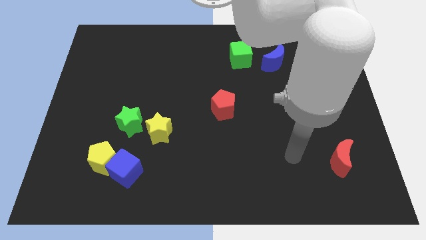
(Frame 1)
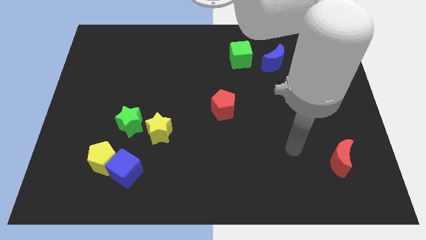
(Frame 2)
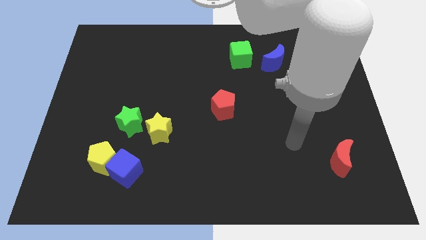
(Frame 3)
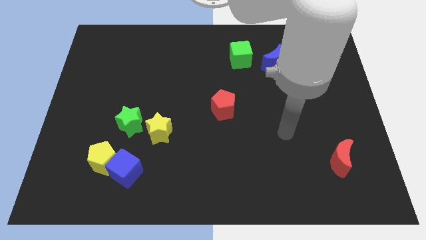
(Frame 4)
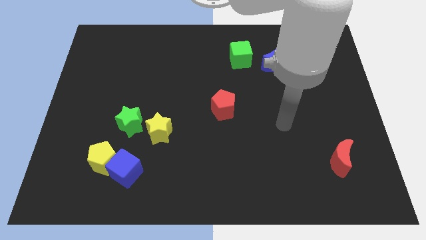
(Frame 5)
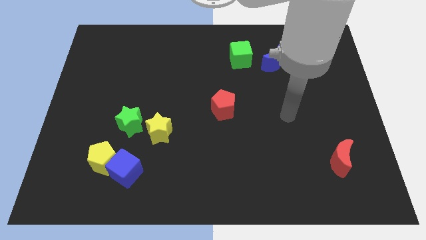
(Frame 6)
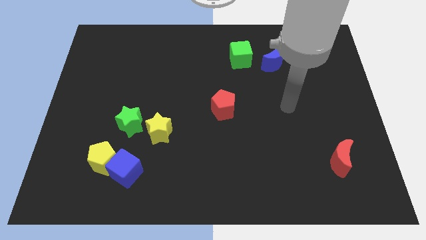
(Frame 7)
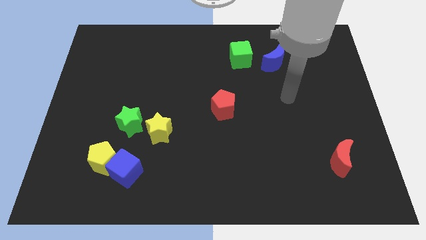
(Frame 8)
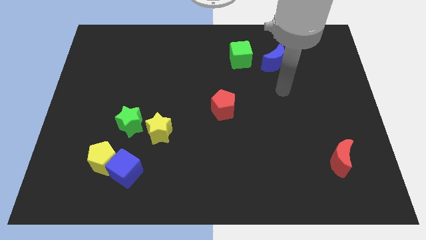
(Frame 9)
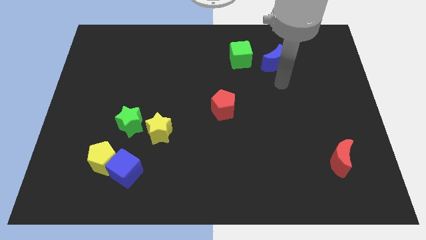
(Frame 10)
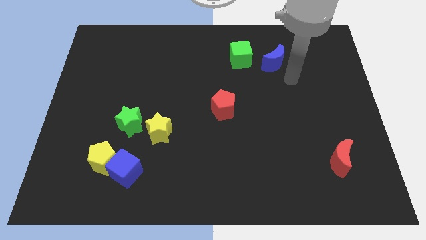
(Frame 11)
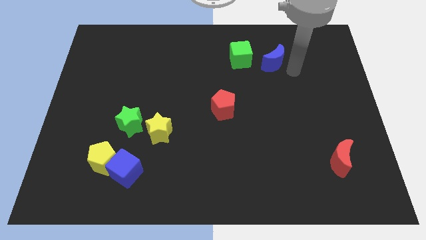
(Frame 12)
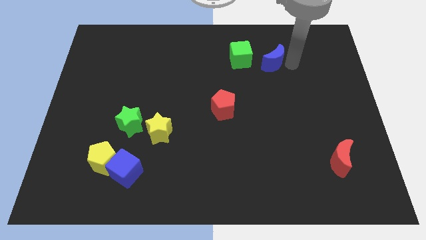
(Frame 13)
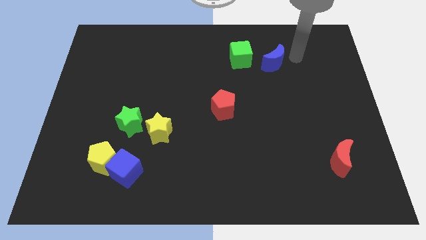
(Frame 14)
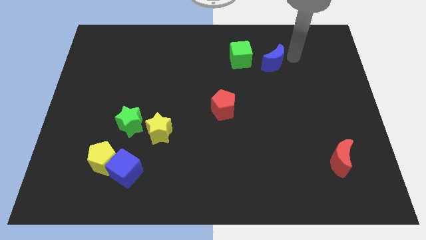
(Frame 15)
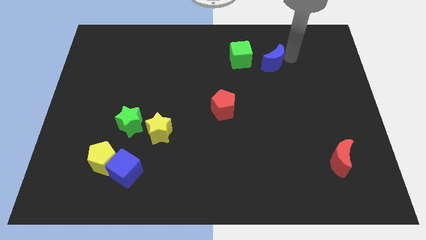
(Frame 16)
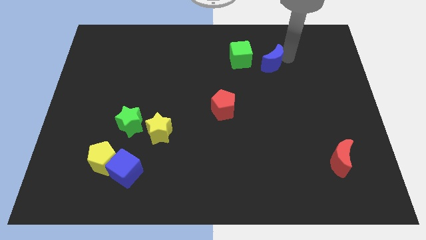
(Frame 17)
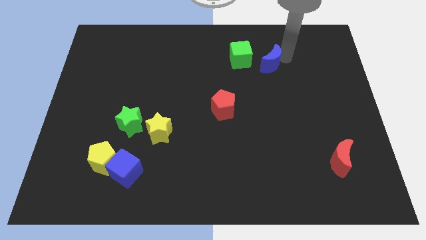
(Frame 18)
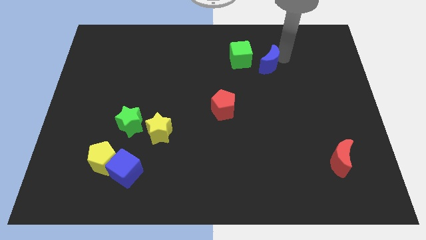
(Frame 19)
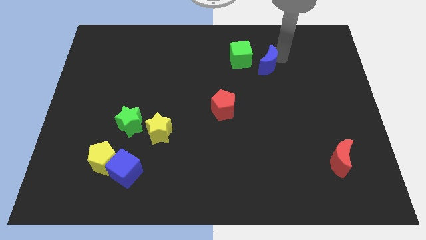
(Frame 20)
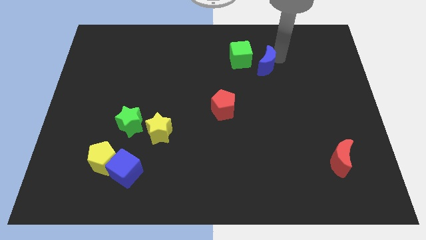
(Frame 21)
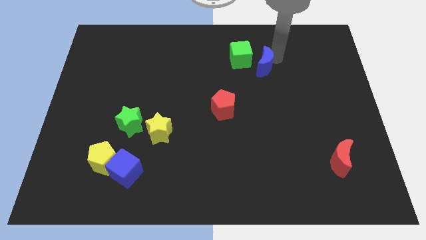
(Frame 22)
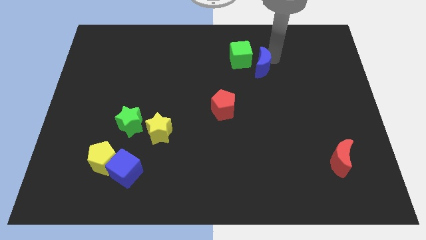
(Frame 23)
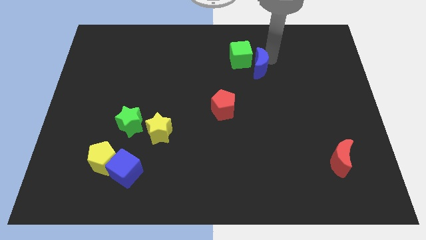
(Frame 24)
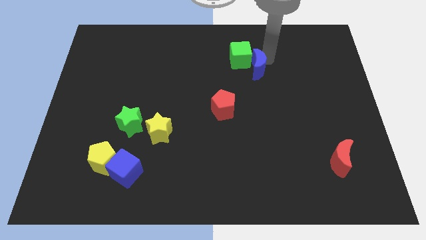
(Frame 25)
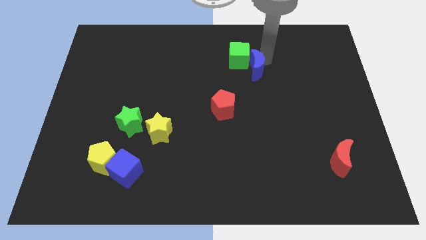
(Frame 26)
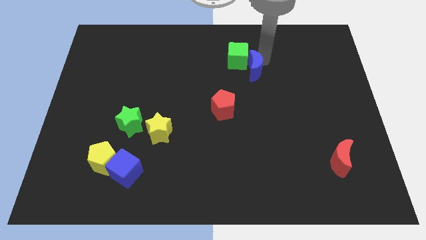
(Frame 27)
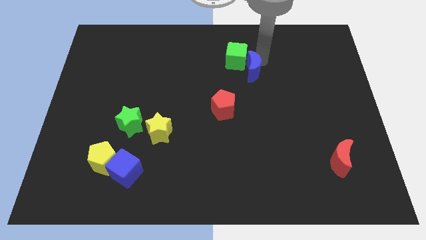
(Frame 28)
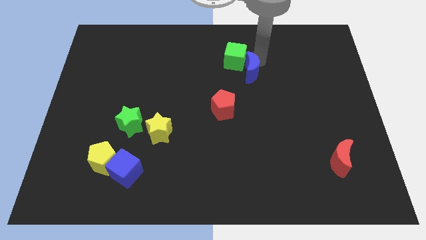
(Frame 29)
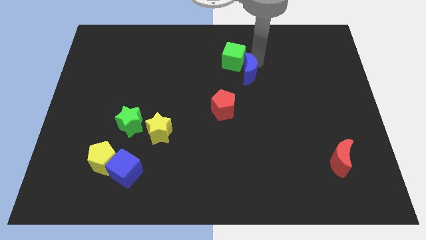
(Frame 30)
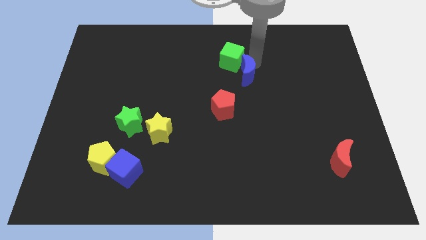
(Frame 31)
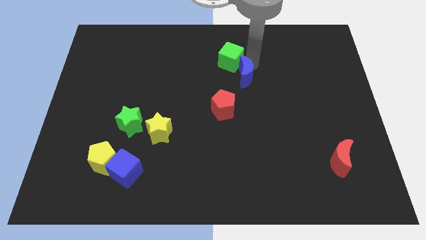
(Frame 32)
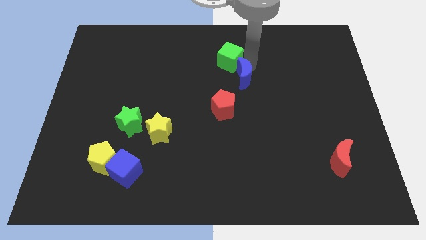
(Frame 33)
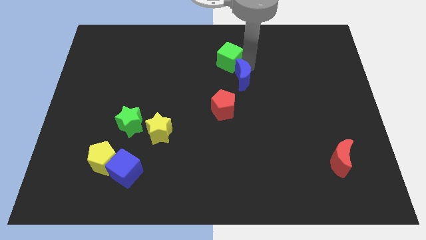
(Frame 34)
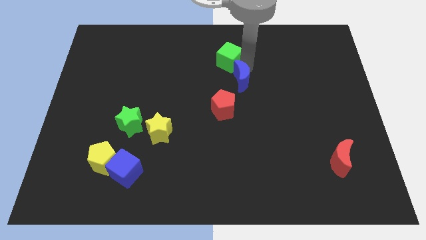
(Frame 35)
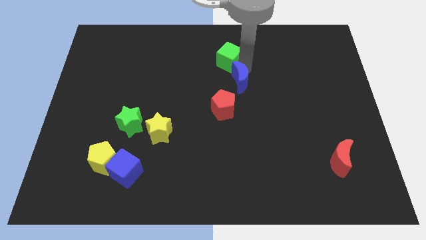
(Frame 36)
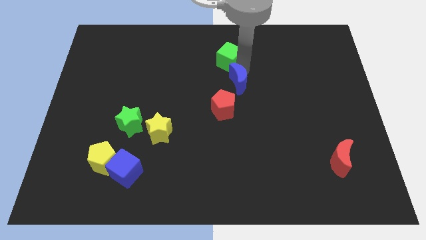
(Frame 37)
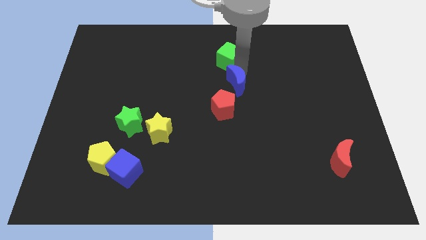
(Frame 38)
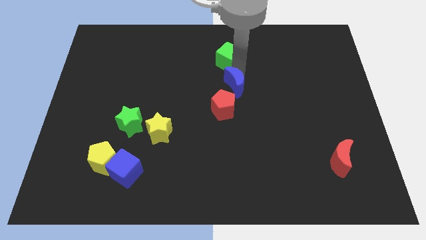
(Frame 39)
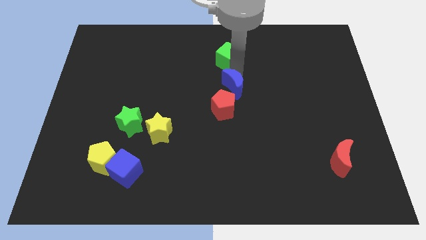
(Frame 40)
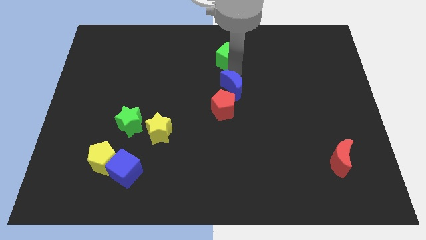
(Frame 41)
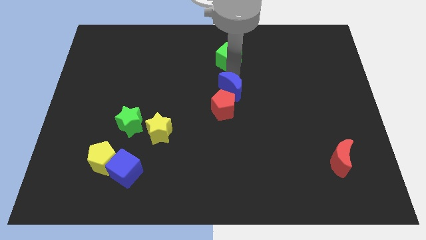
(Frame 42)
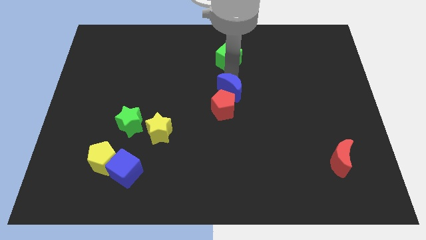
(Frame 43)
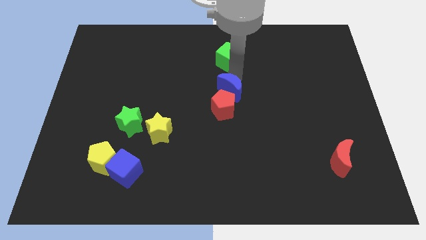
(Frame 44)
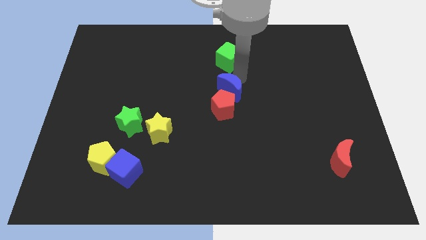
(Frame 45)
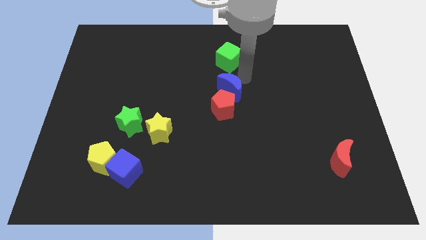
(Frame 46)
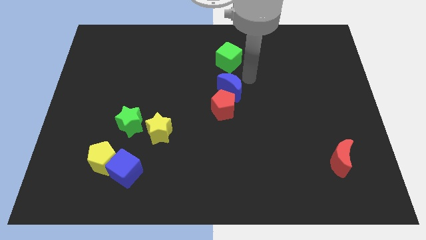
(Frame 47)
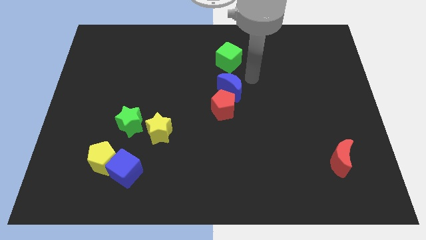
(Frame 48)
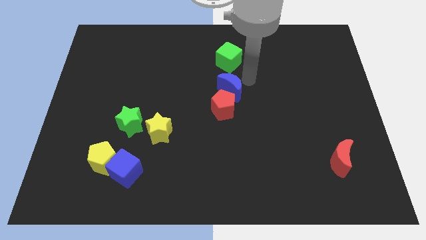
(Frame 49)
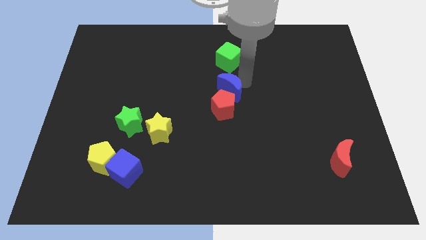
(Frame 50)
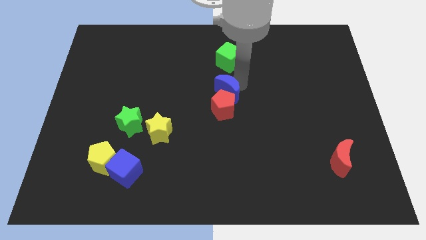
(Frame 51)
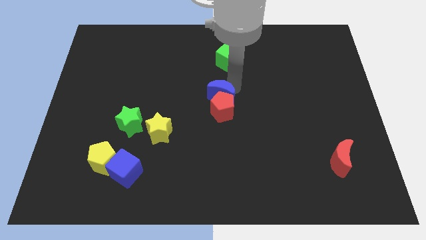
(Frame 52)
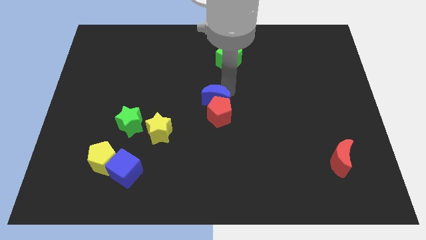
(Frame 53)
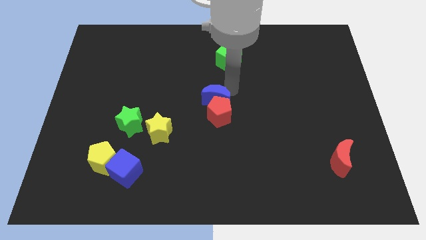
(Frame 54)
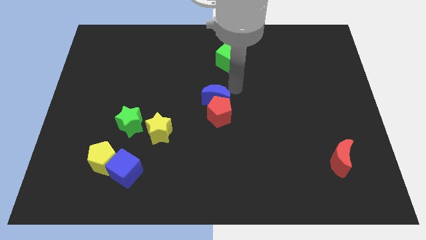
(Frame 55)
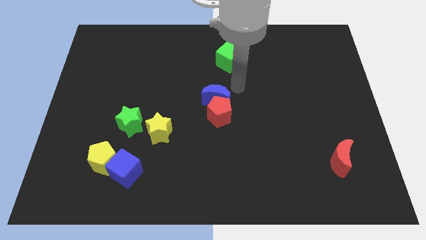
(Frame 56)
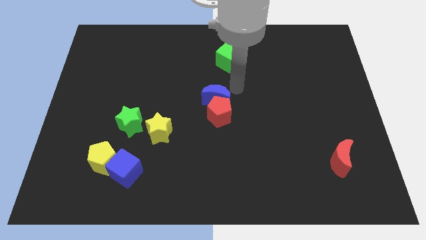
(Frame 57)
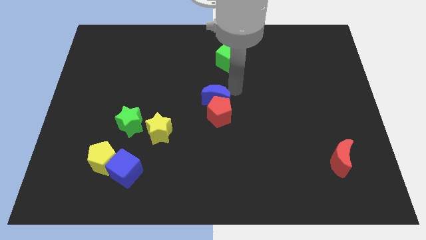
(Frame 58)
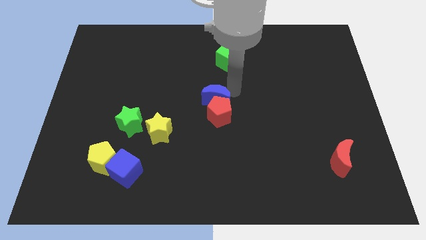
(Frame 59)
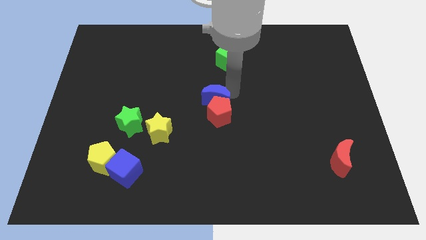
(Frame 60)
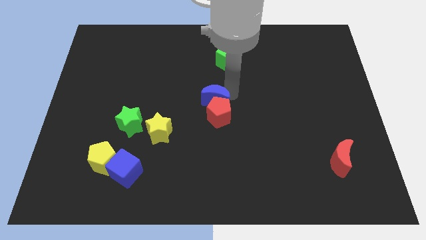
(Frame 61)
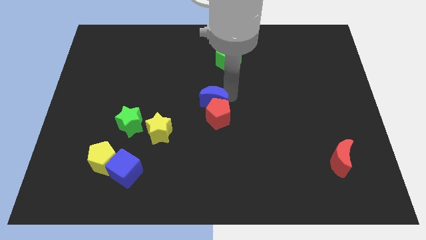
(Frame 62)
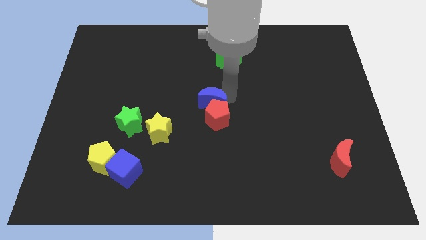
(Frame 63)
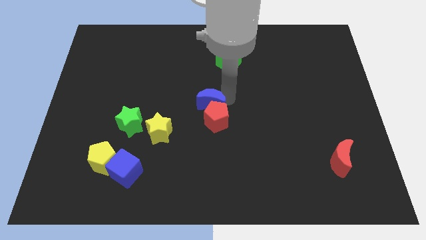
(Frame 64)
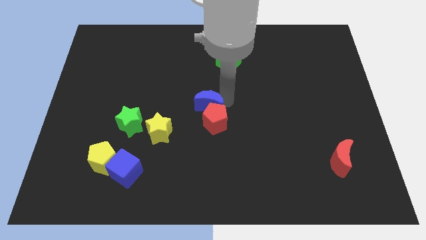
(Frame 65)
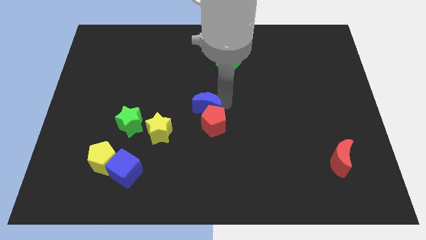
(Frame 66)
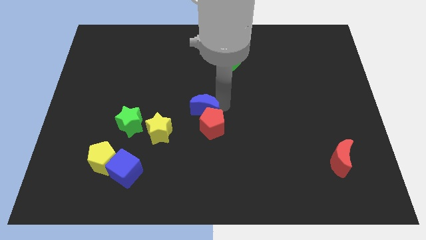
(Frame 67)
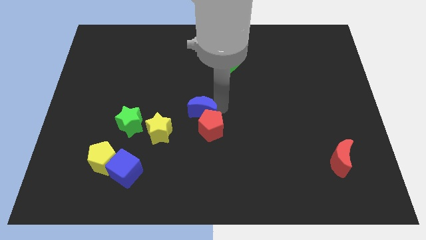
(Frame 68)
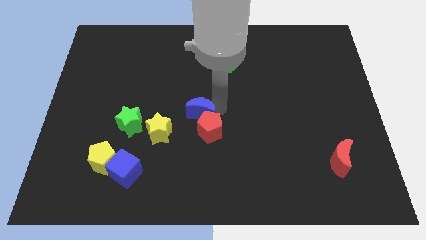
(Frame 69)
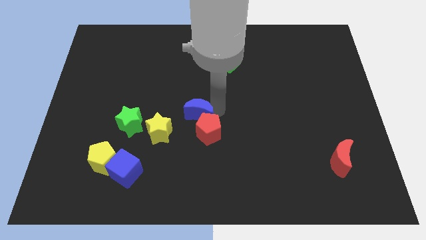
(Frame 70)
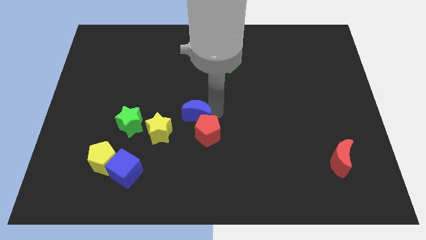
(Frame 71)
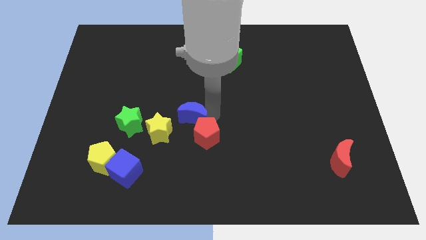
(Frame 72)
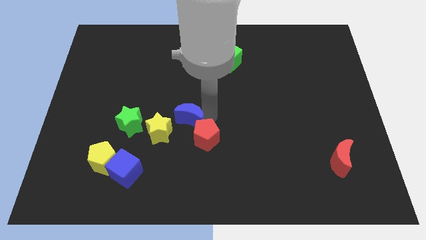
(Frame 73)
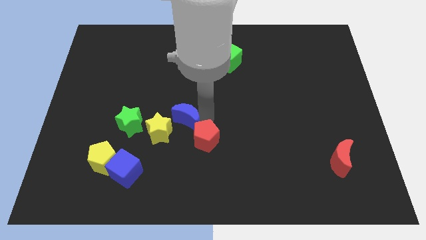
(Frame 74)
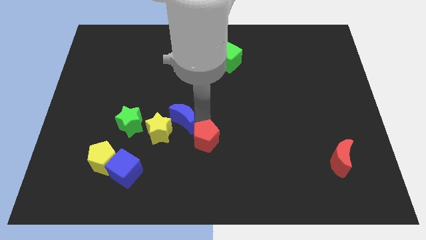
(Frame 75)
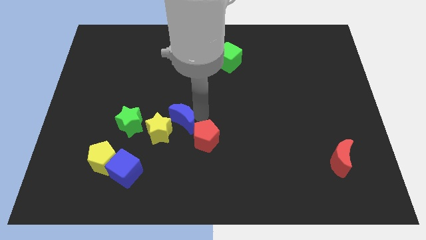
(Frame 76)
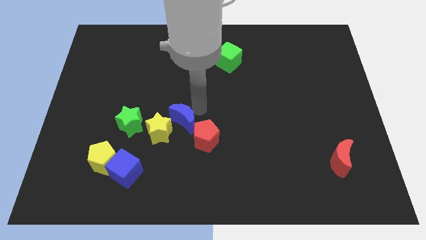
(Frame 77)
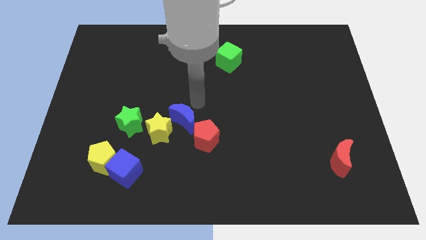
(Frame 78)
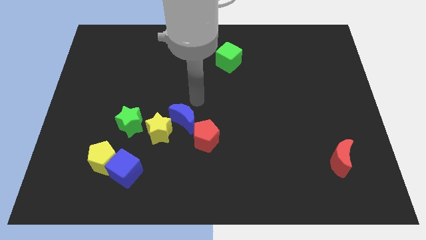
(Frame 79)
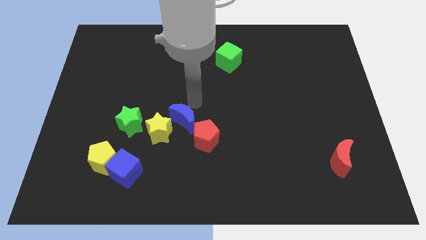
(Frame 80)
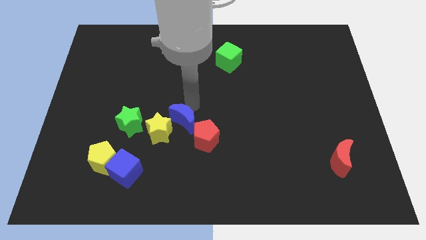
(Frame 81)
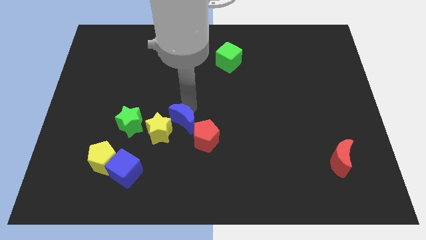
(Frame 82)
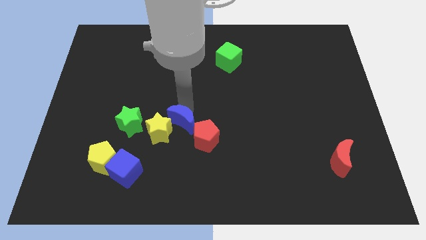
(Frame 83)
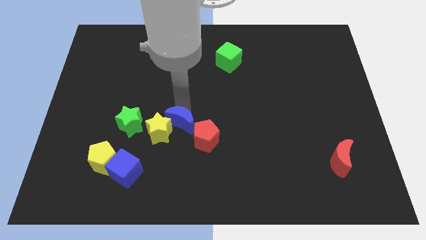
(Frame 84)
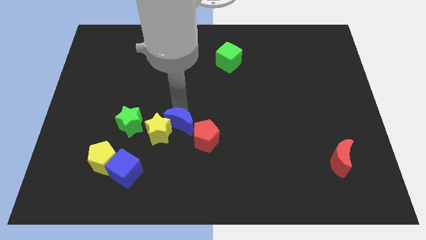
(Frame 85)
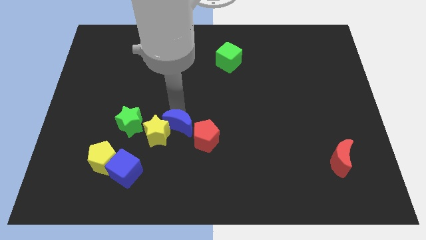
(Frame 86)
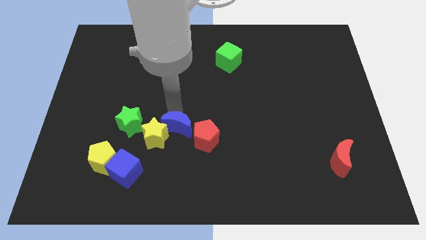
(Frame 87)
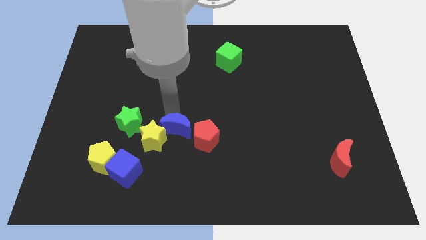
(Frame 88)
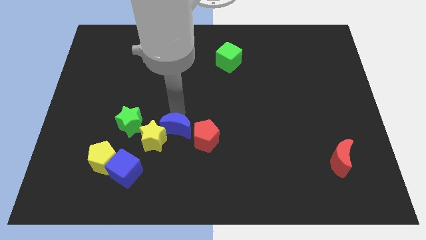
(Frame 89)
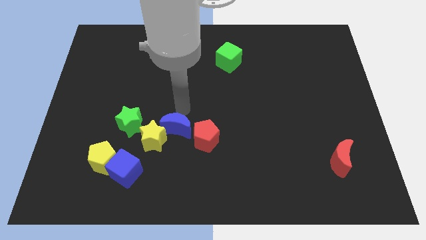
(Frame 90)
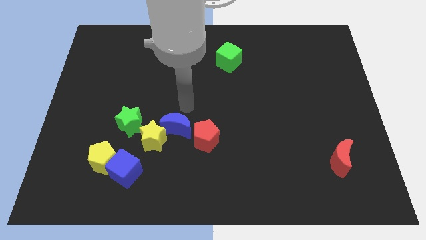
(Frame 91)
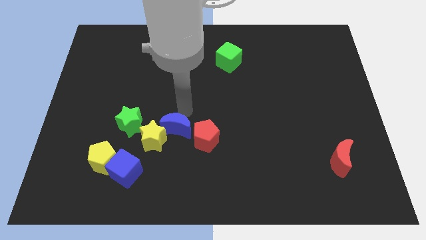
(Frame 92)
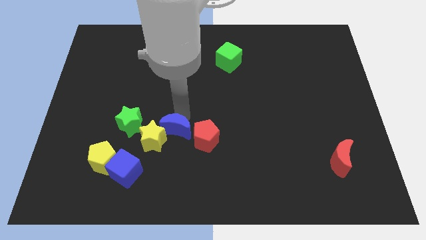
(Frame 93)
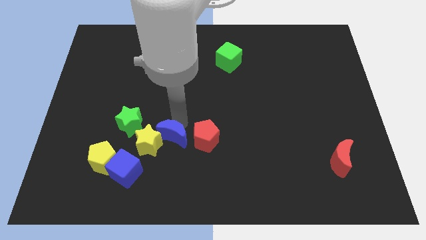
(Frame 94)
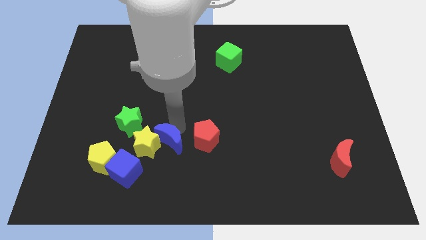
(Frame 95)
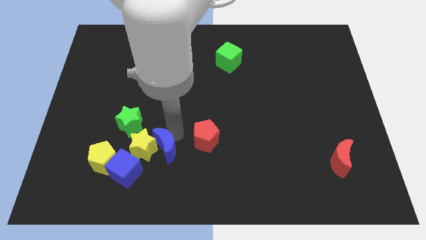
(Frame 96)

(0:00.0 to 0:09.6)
move the blue moon right of the yellow pentagon
